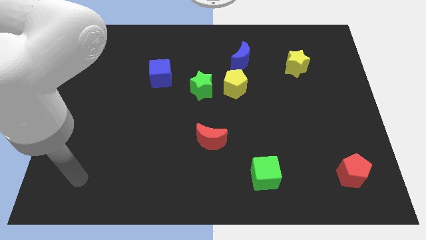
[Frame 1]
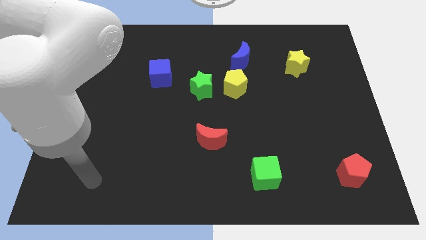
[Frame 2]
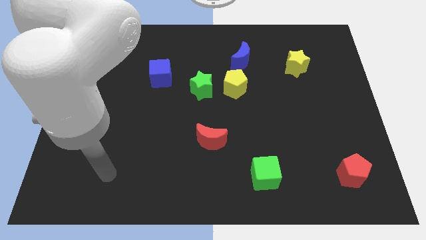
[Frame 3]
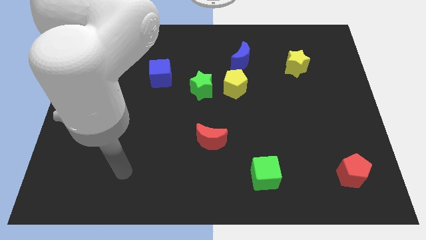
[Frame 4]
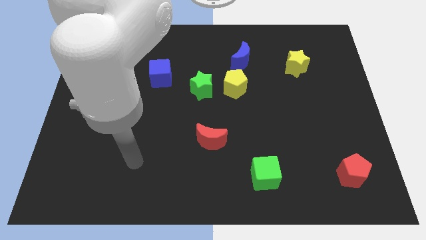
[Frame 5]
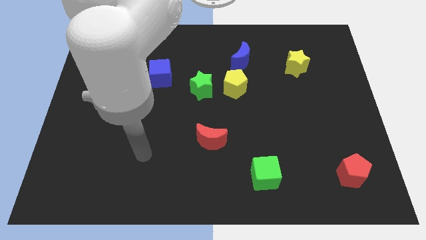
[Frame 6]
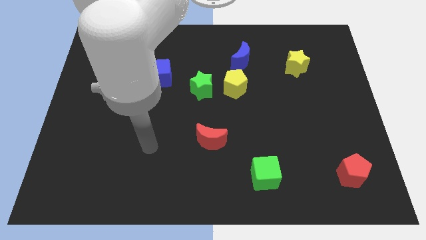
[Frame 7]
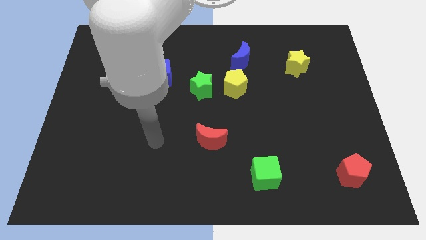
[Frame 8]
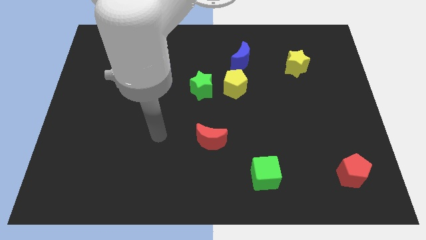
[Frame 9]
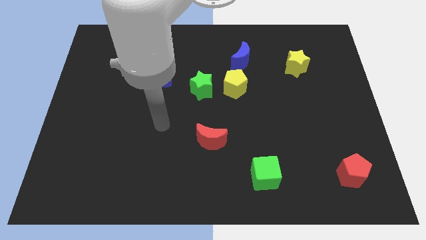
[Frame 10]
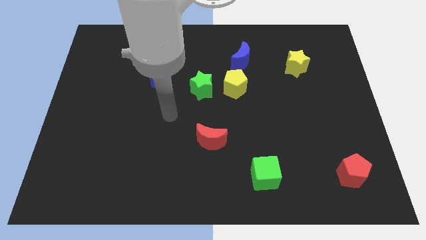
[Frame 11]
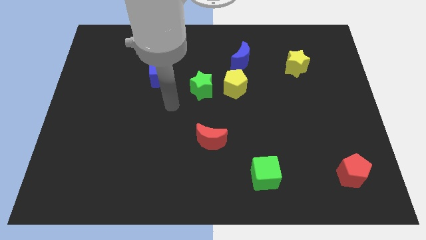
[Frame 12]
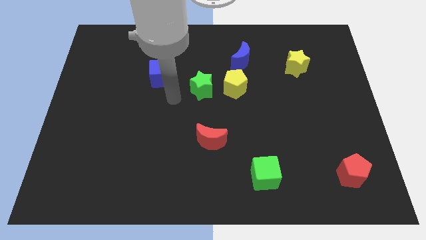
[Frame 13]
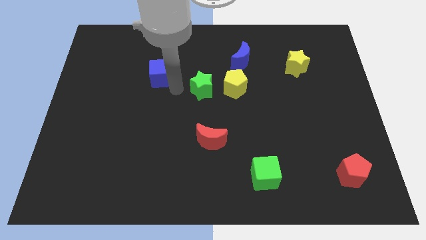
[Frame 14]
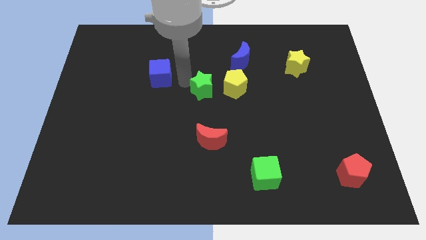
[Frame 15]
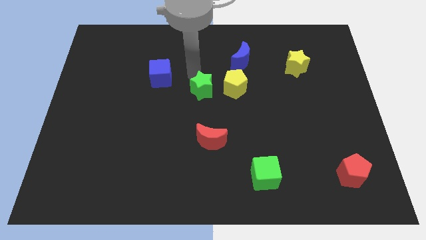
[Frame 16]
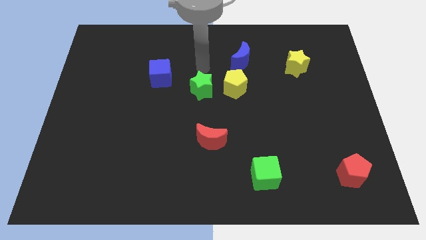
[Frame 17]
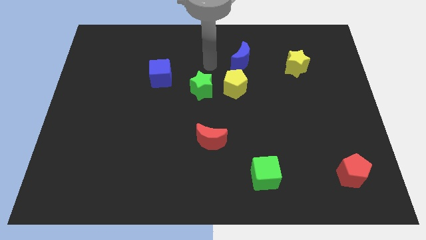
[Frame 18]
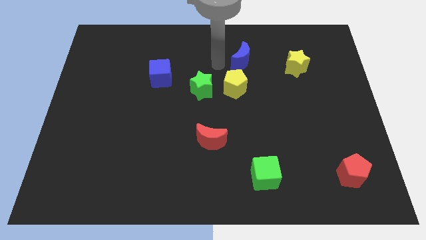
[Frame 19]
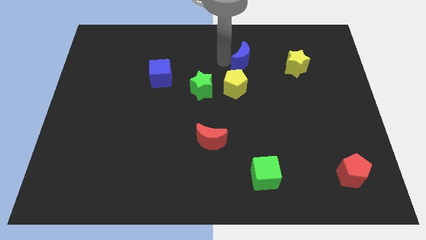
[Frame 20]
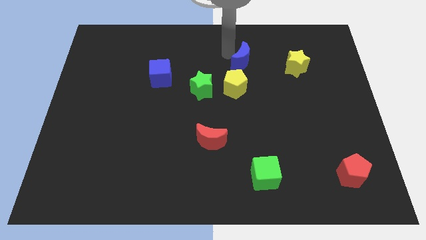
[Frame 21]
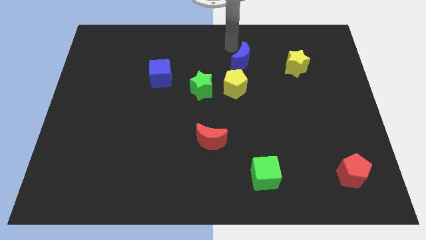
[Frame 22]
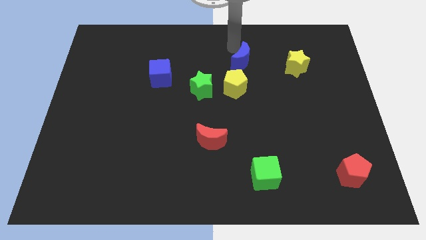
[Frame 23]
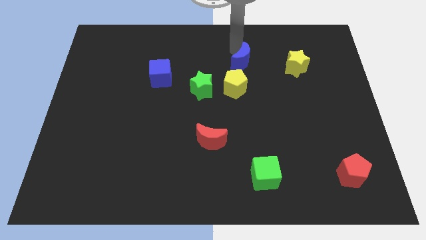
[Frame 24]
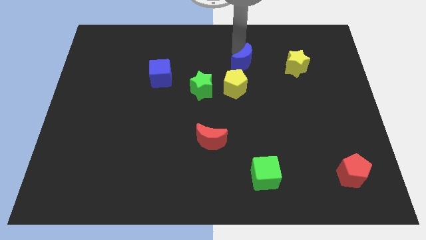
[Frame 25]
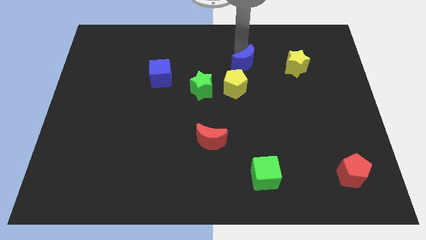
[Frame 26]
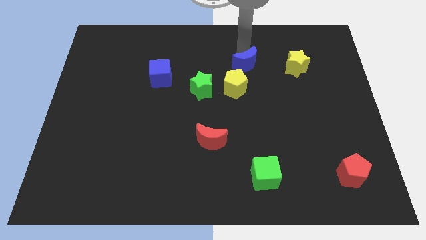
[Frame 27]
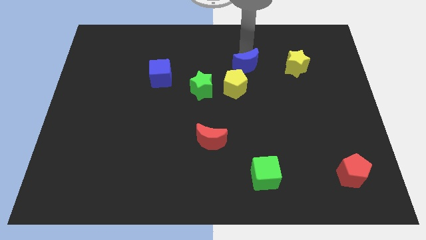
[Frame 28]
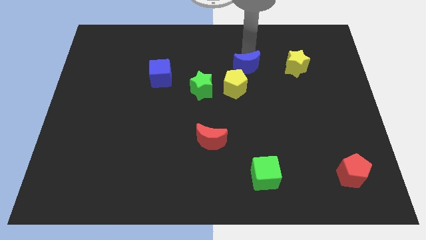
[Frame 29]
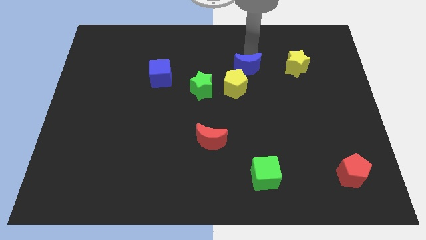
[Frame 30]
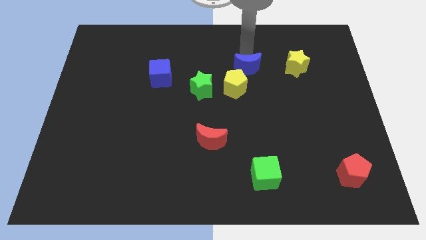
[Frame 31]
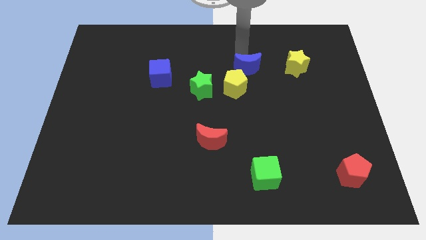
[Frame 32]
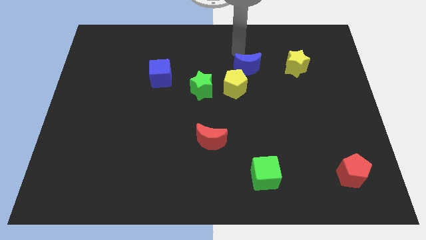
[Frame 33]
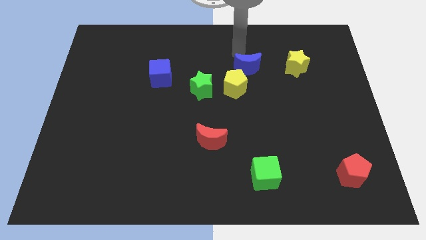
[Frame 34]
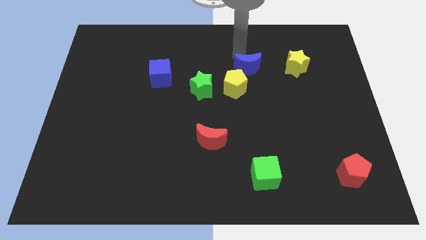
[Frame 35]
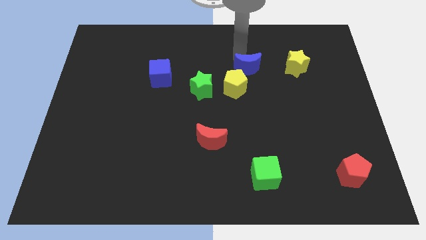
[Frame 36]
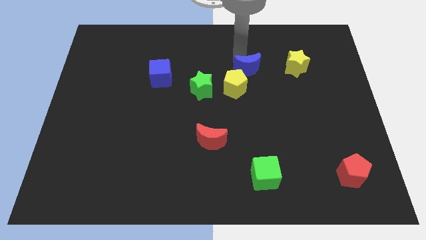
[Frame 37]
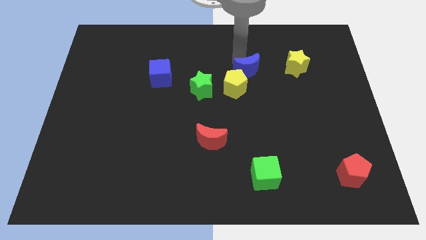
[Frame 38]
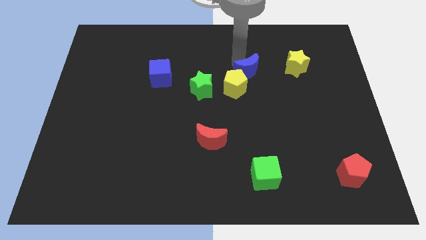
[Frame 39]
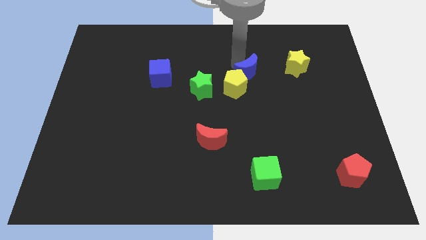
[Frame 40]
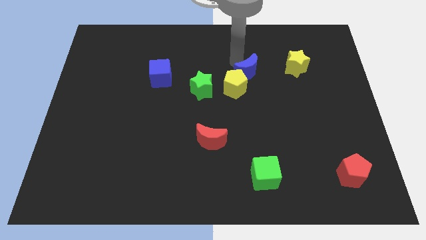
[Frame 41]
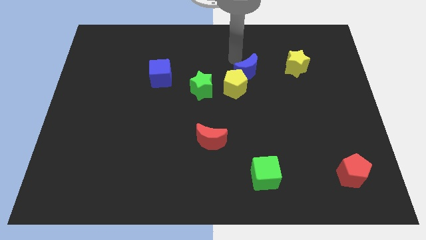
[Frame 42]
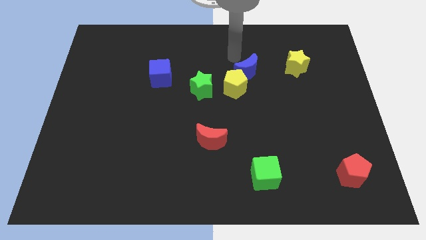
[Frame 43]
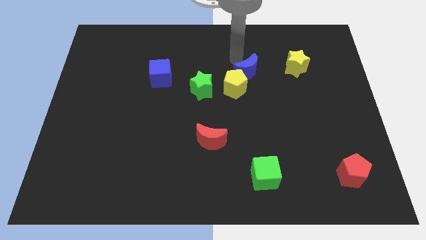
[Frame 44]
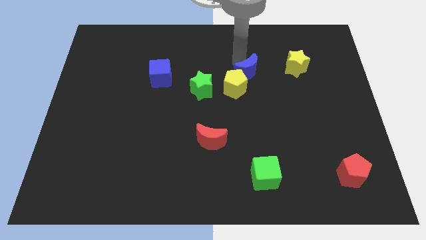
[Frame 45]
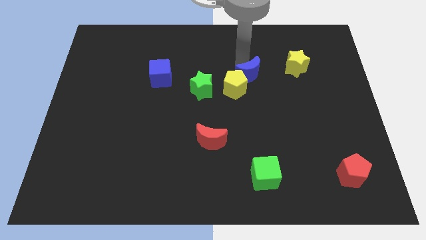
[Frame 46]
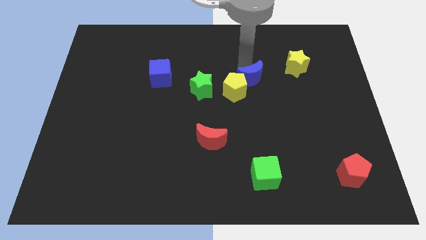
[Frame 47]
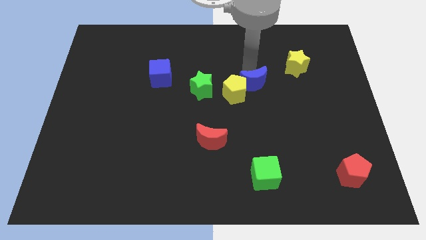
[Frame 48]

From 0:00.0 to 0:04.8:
slightly slide the blue moon down

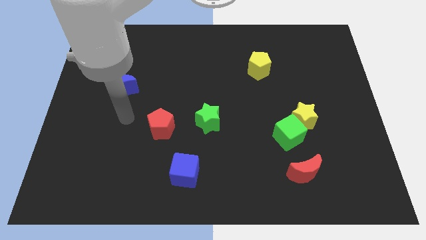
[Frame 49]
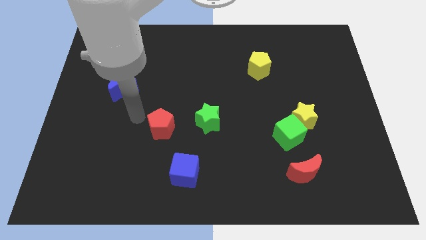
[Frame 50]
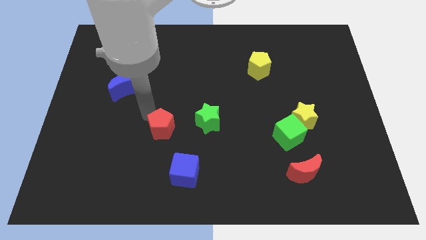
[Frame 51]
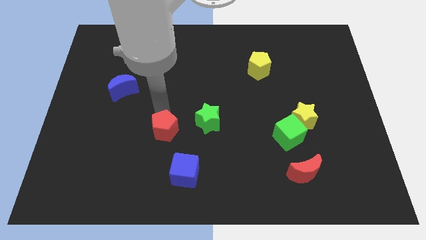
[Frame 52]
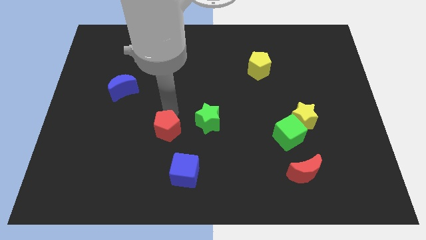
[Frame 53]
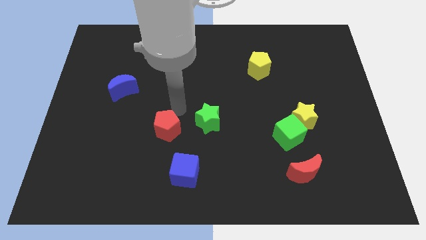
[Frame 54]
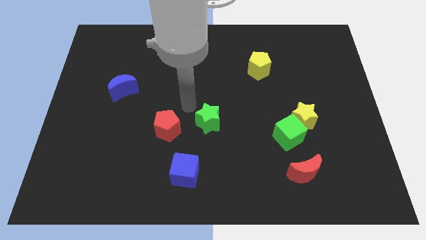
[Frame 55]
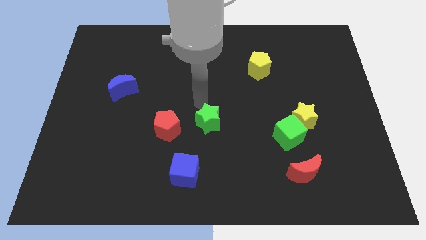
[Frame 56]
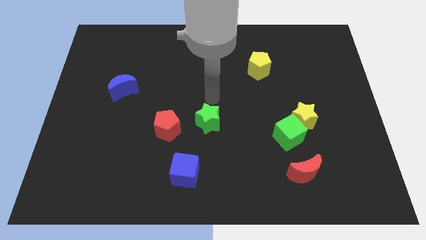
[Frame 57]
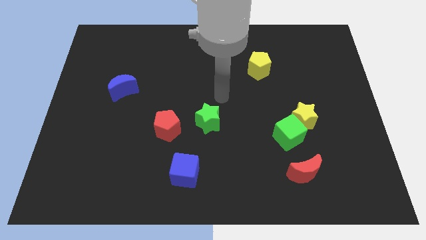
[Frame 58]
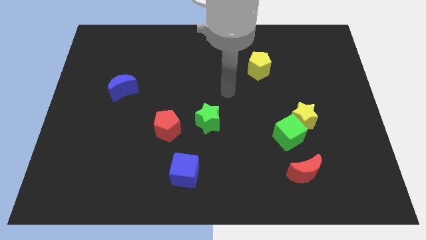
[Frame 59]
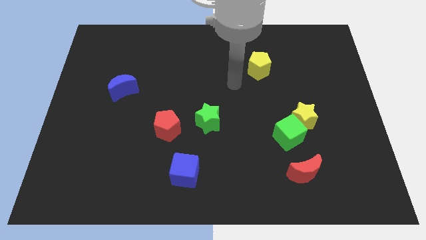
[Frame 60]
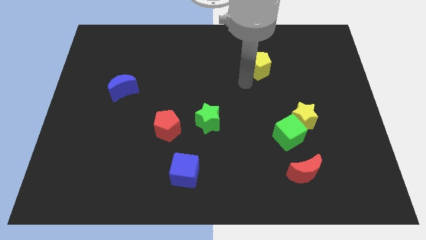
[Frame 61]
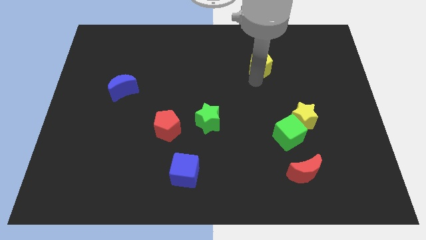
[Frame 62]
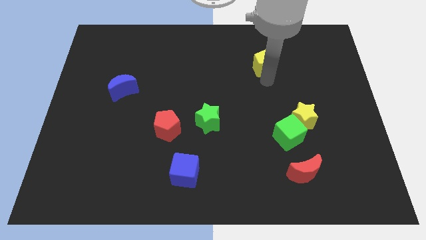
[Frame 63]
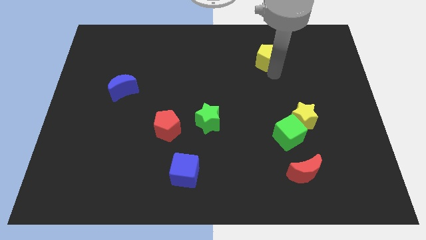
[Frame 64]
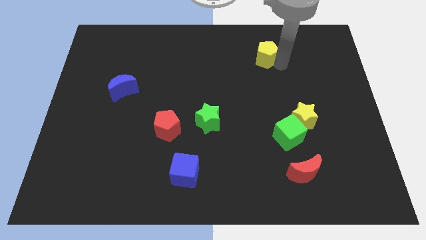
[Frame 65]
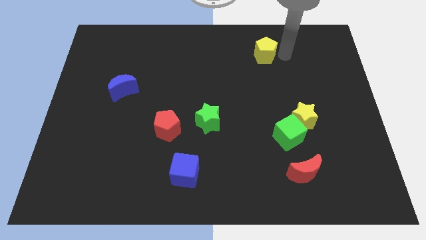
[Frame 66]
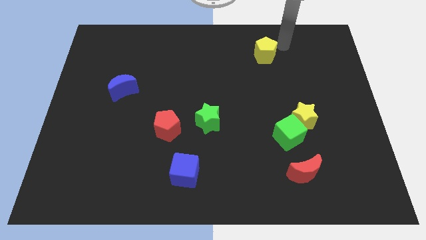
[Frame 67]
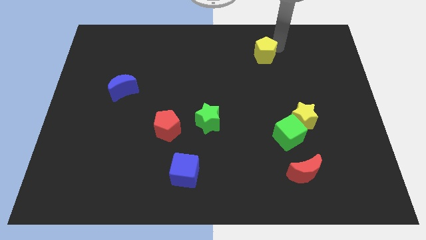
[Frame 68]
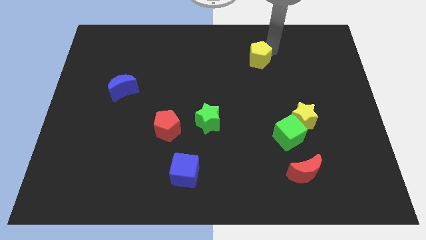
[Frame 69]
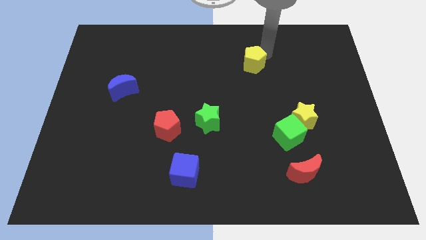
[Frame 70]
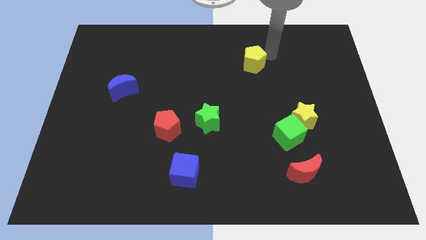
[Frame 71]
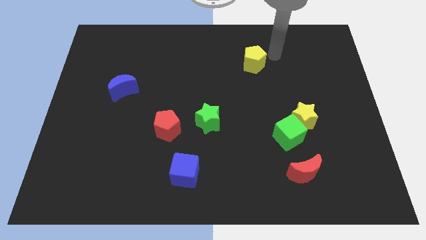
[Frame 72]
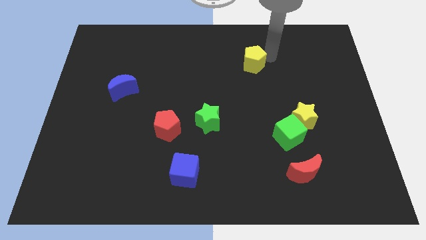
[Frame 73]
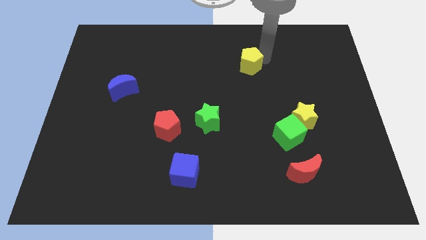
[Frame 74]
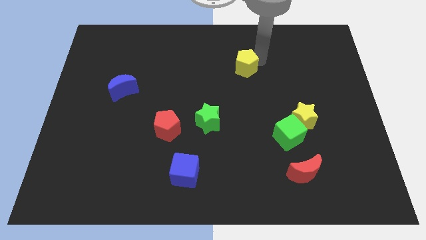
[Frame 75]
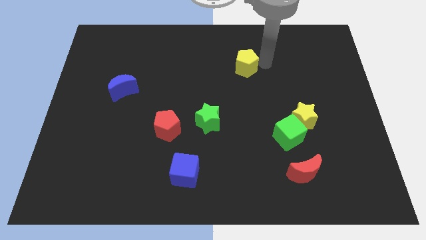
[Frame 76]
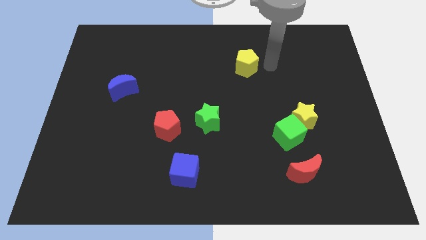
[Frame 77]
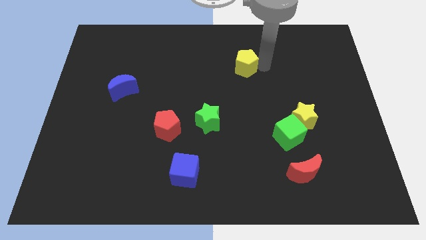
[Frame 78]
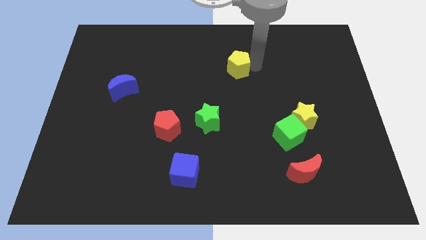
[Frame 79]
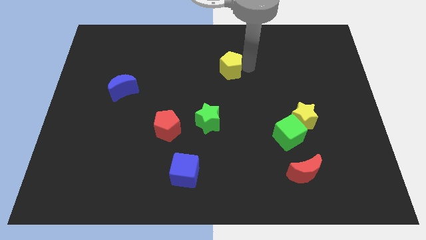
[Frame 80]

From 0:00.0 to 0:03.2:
slightly slide the yellow pentagon left
